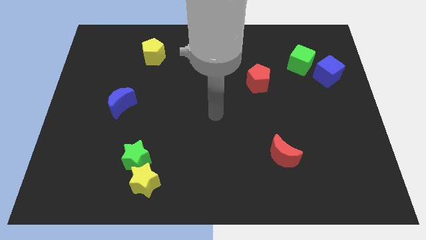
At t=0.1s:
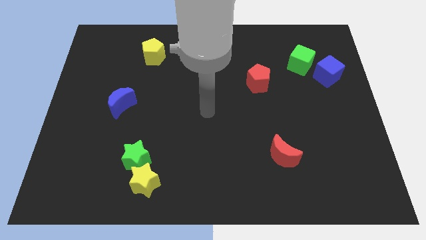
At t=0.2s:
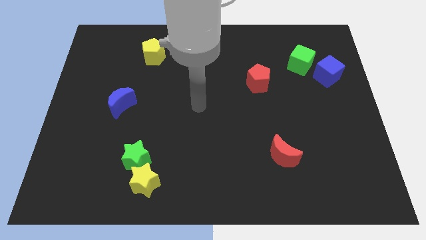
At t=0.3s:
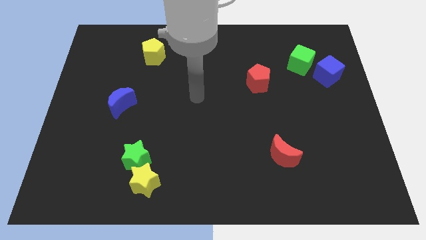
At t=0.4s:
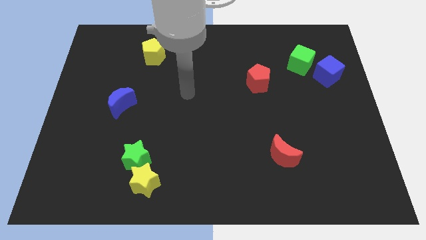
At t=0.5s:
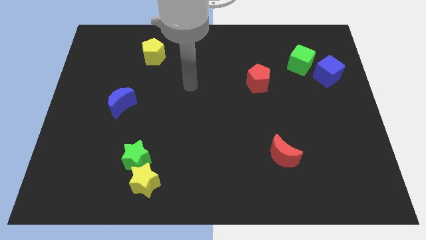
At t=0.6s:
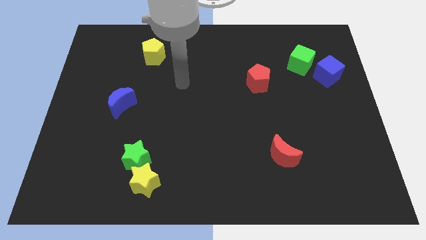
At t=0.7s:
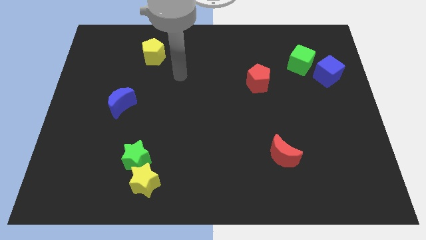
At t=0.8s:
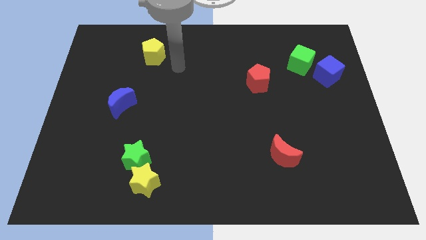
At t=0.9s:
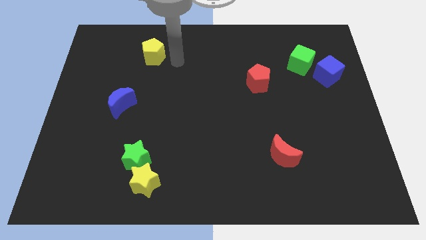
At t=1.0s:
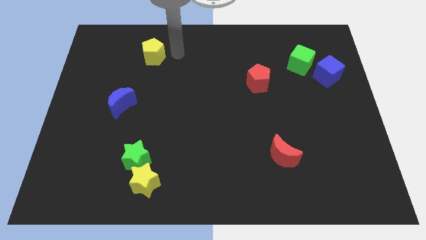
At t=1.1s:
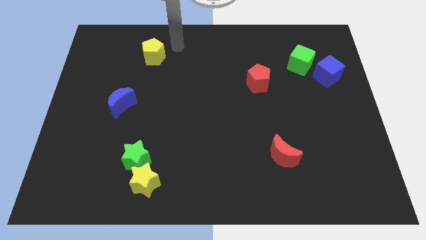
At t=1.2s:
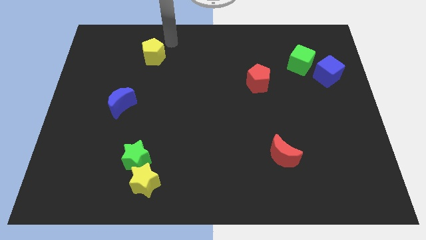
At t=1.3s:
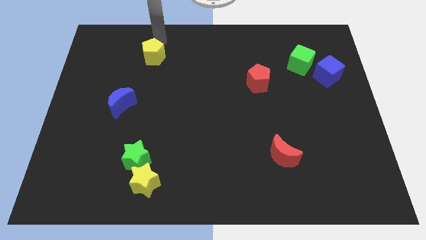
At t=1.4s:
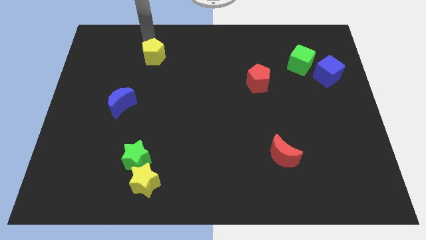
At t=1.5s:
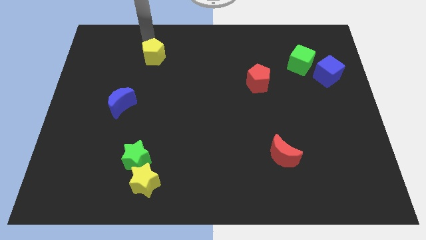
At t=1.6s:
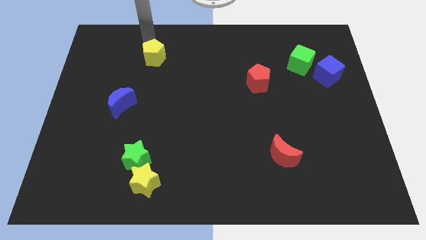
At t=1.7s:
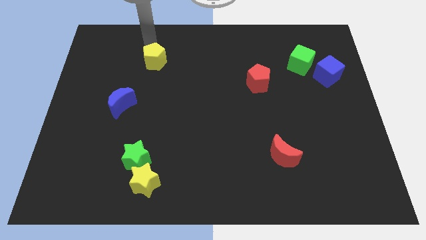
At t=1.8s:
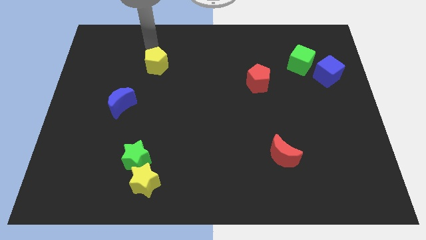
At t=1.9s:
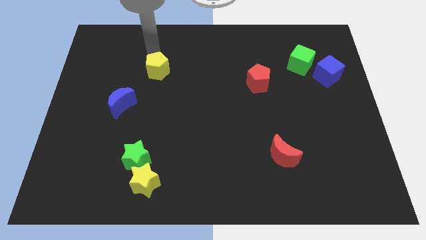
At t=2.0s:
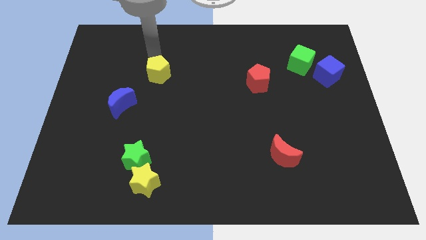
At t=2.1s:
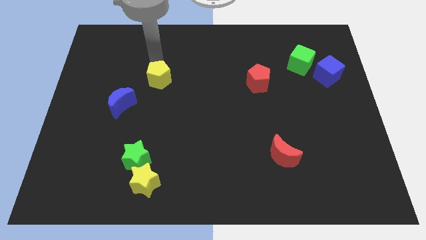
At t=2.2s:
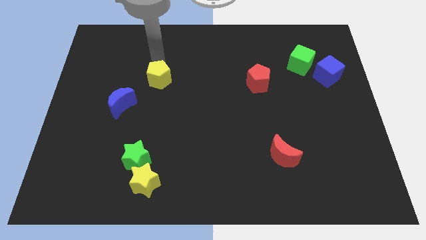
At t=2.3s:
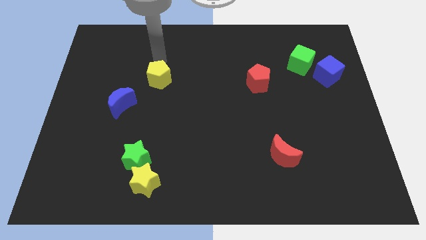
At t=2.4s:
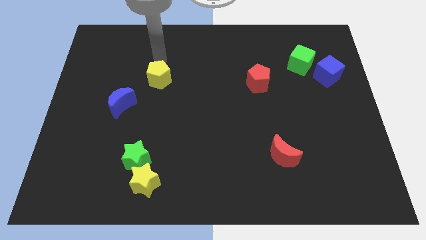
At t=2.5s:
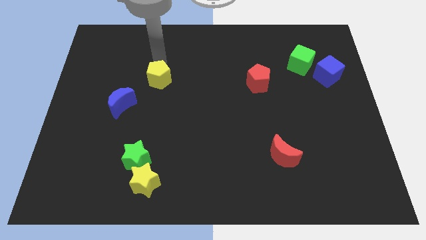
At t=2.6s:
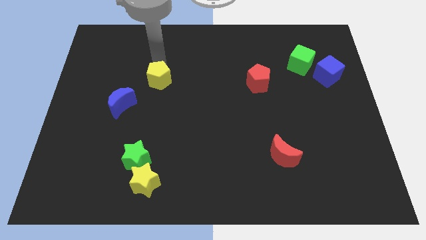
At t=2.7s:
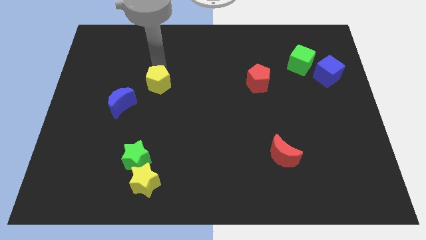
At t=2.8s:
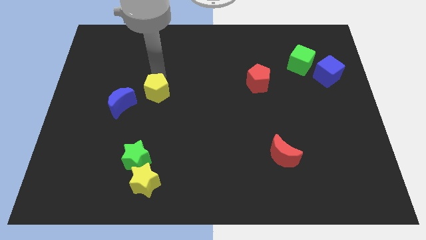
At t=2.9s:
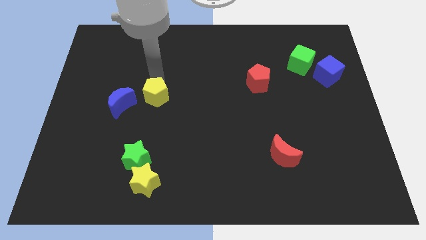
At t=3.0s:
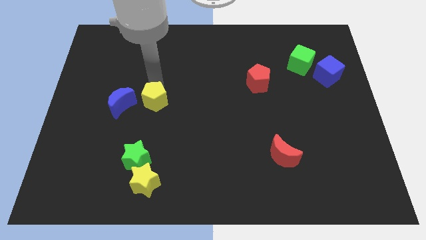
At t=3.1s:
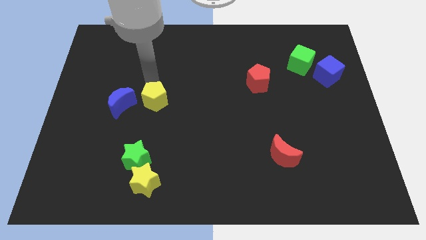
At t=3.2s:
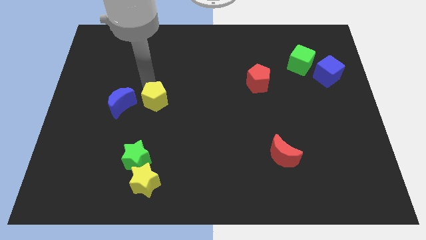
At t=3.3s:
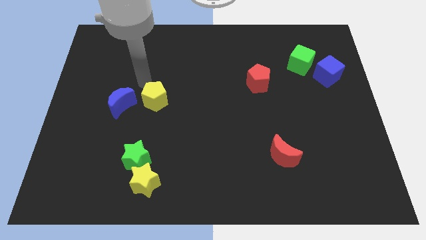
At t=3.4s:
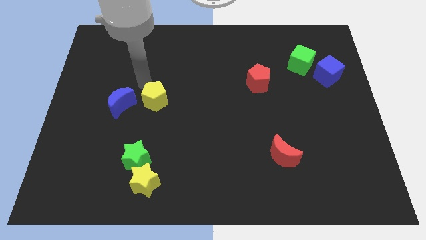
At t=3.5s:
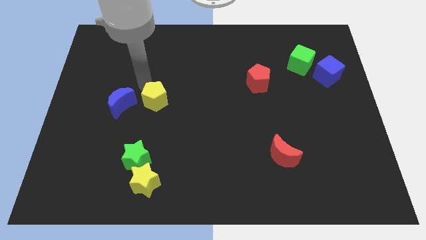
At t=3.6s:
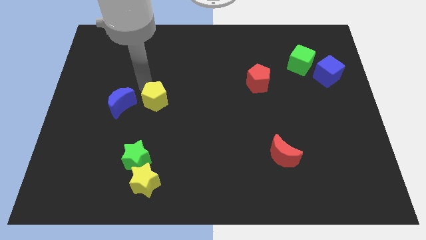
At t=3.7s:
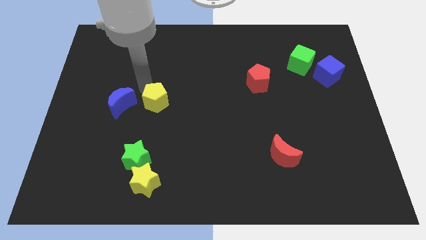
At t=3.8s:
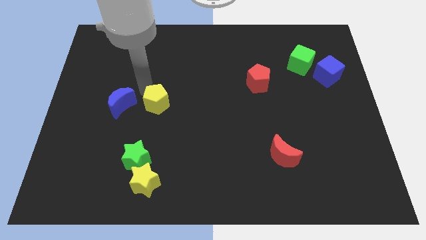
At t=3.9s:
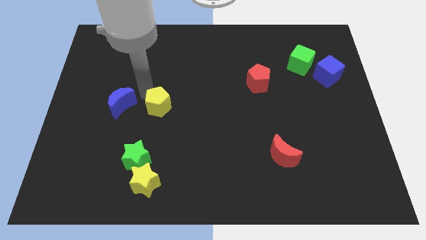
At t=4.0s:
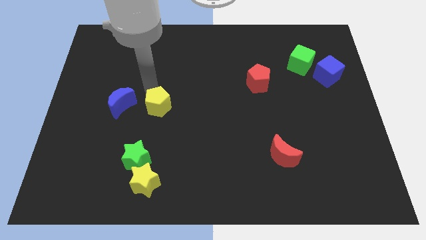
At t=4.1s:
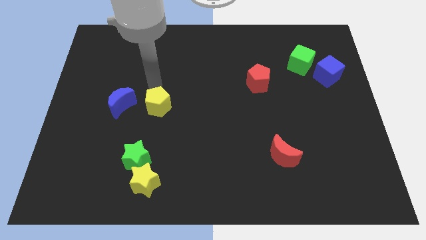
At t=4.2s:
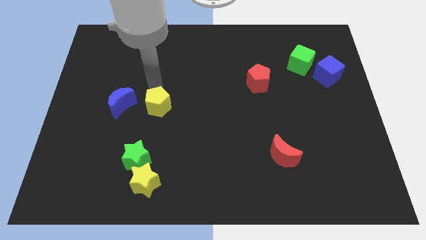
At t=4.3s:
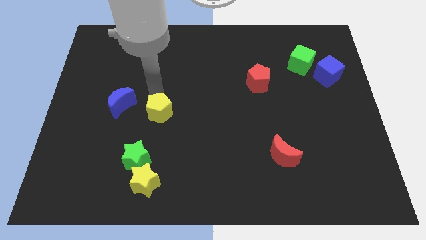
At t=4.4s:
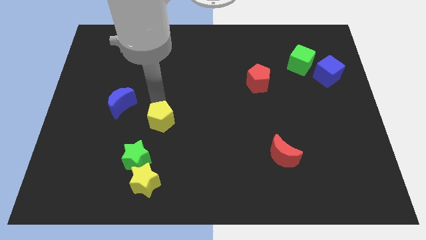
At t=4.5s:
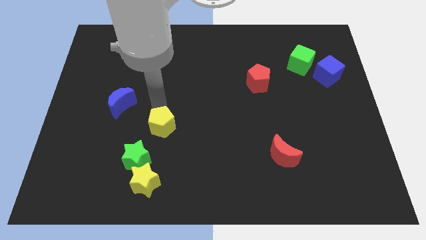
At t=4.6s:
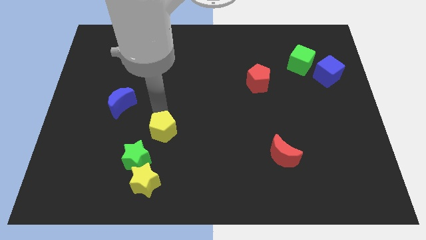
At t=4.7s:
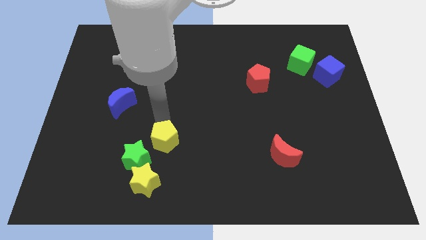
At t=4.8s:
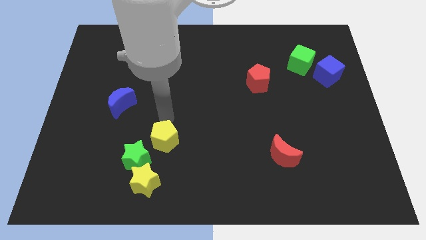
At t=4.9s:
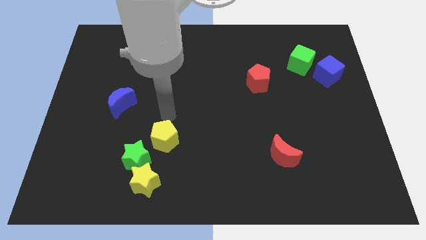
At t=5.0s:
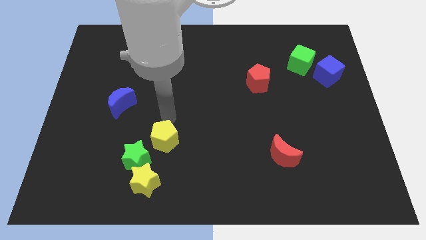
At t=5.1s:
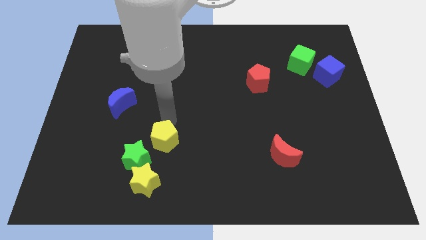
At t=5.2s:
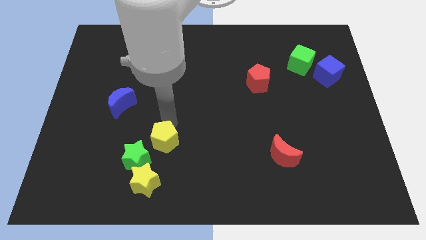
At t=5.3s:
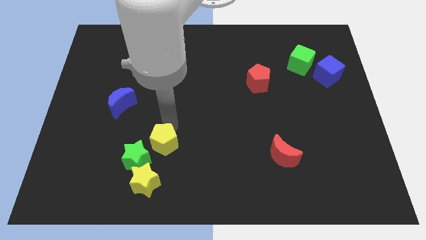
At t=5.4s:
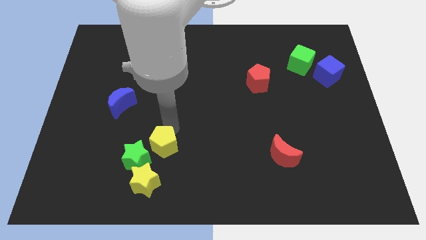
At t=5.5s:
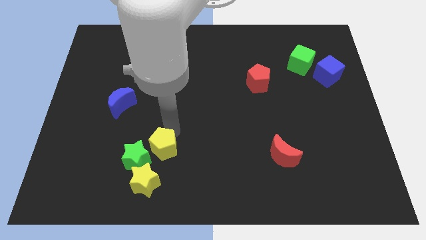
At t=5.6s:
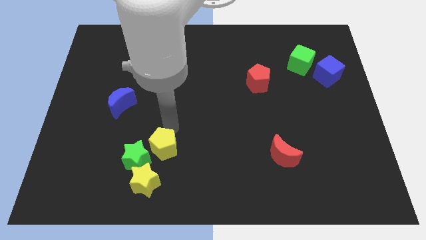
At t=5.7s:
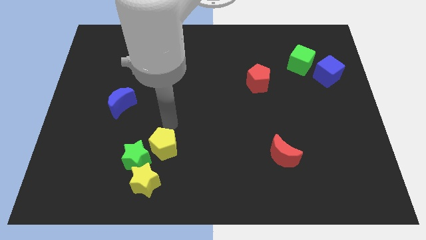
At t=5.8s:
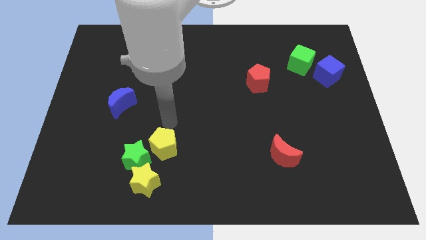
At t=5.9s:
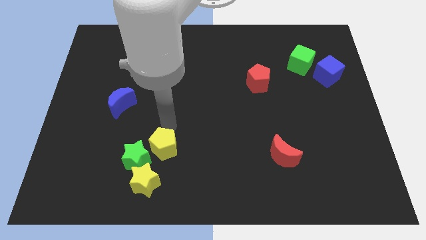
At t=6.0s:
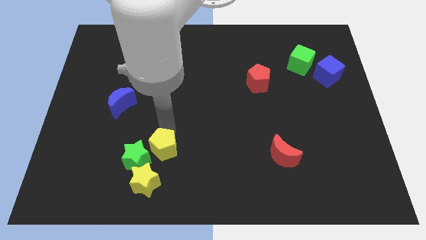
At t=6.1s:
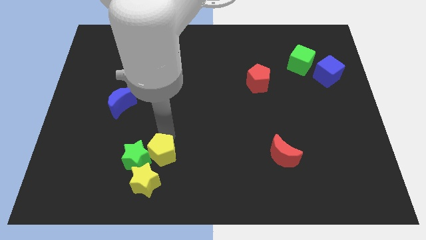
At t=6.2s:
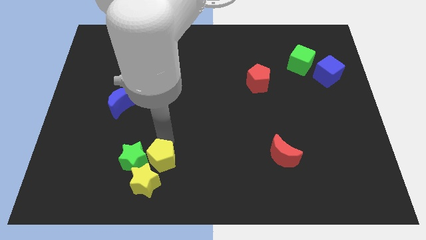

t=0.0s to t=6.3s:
slide the yellow pentagon towards the yellow star
